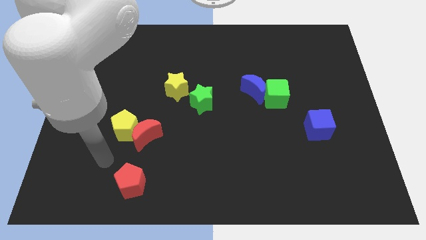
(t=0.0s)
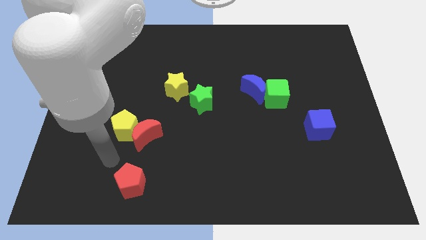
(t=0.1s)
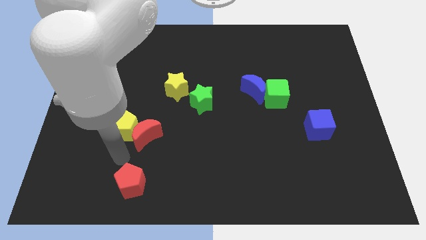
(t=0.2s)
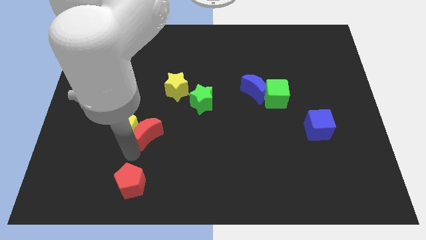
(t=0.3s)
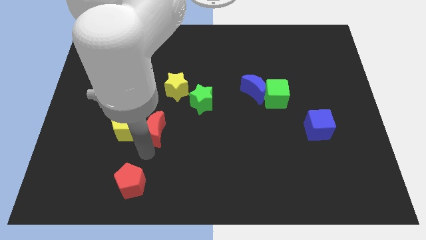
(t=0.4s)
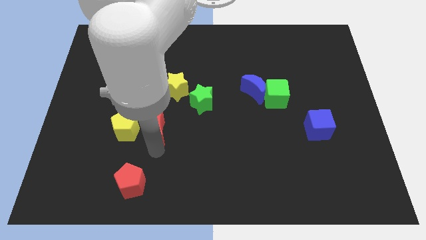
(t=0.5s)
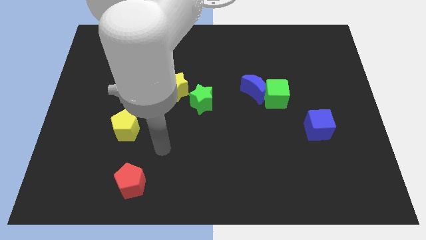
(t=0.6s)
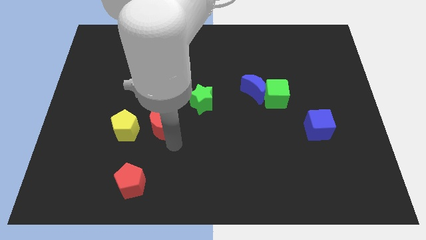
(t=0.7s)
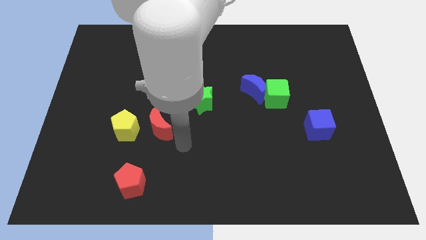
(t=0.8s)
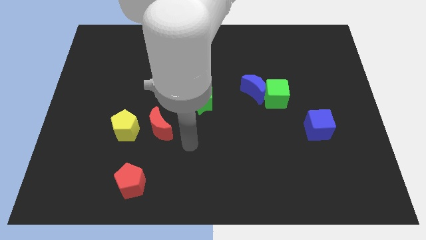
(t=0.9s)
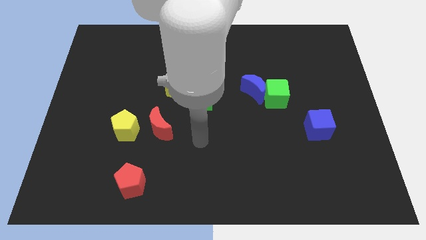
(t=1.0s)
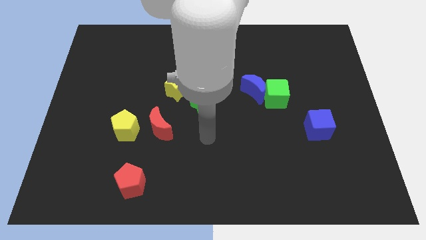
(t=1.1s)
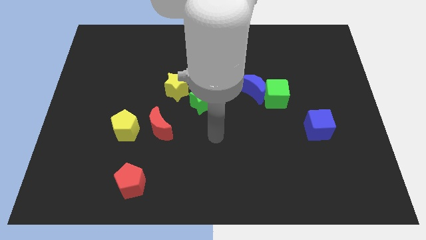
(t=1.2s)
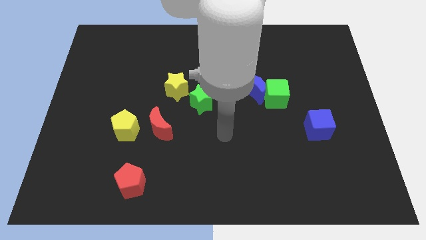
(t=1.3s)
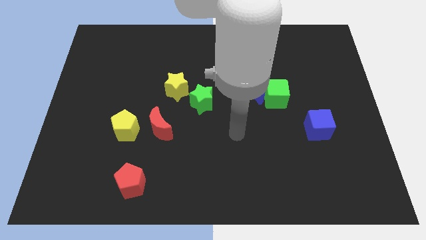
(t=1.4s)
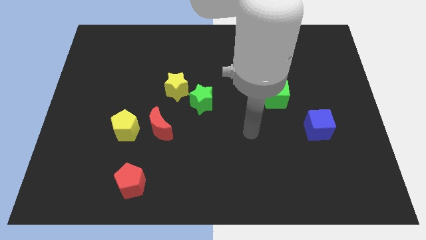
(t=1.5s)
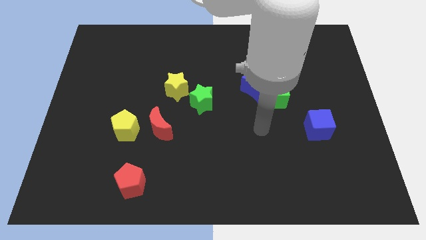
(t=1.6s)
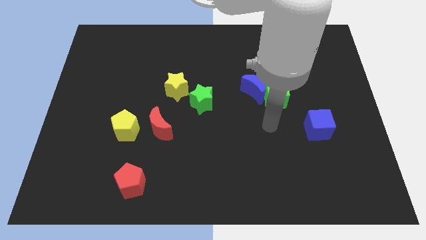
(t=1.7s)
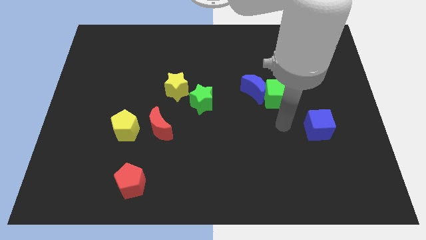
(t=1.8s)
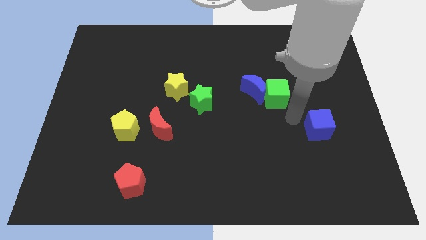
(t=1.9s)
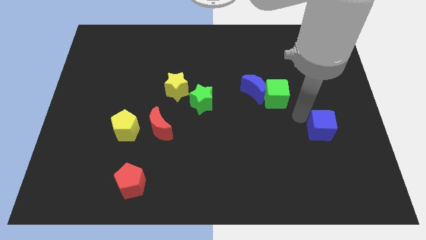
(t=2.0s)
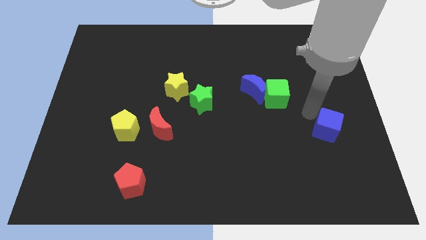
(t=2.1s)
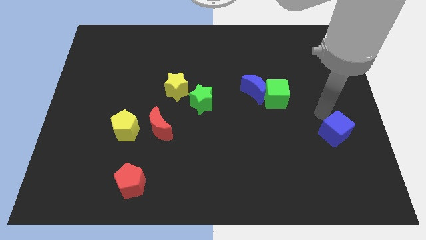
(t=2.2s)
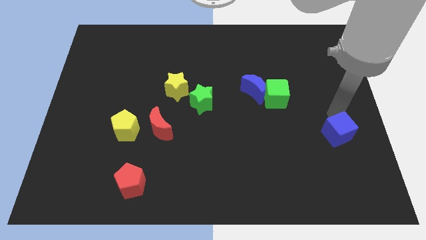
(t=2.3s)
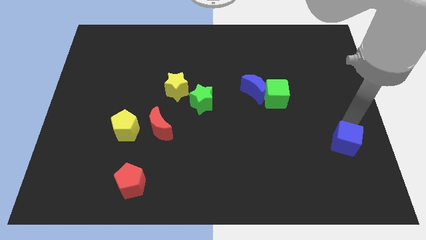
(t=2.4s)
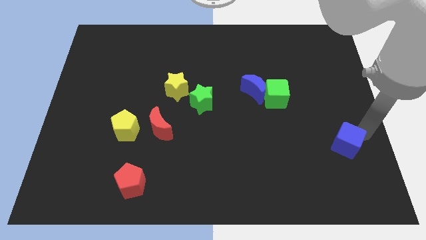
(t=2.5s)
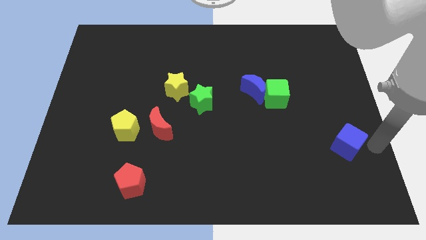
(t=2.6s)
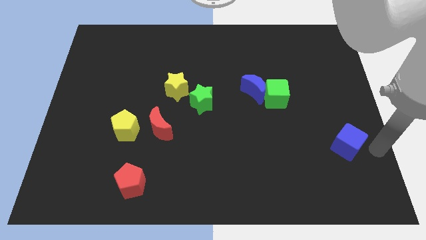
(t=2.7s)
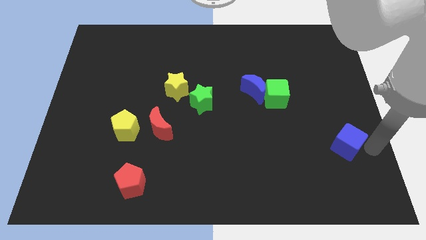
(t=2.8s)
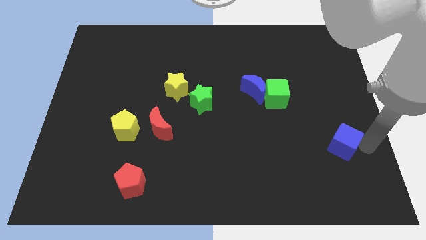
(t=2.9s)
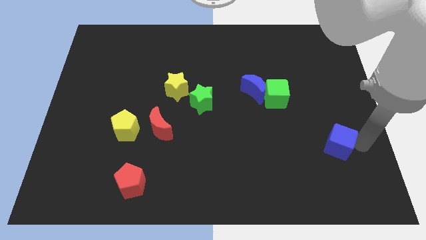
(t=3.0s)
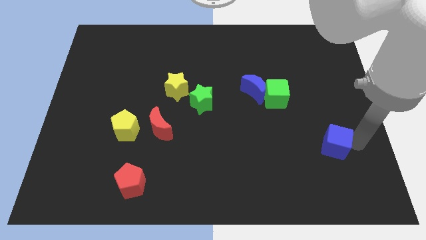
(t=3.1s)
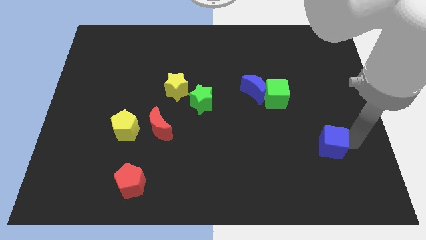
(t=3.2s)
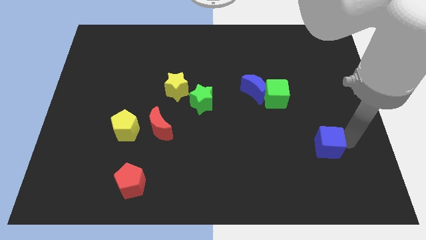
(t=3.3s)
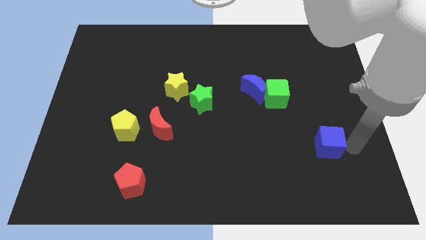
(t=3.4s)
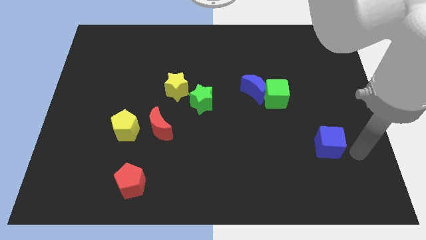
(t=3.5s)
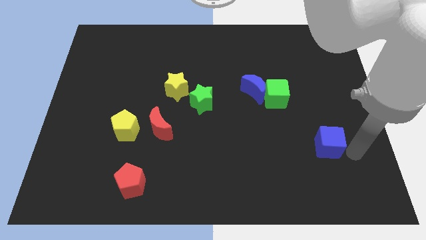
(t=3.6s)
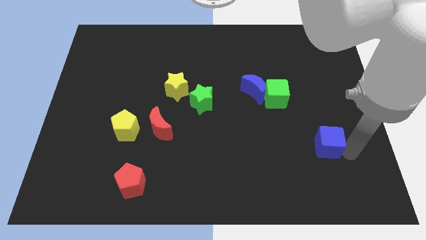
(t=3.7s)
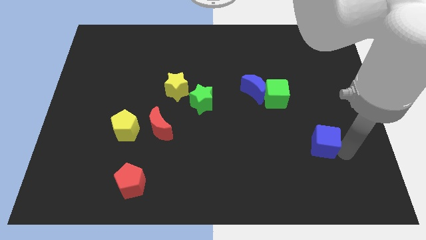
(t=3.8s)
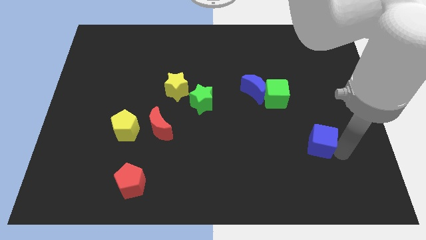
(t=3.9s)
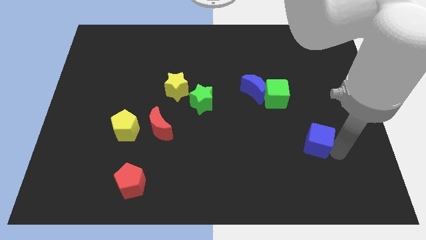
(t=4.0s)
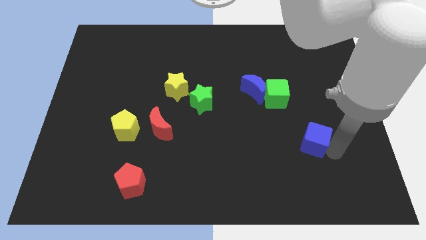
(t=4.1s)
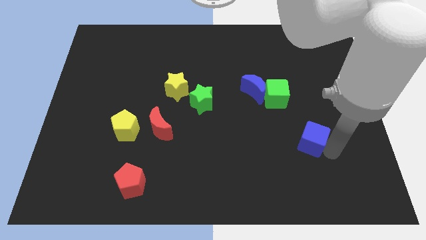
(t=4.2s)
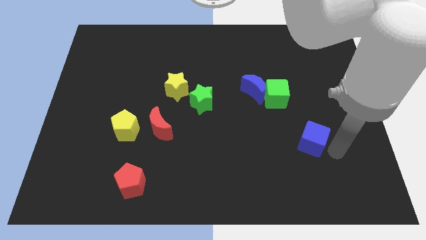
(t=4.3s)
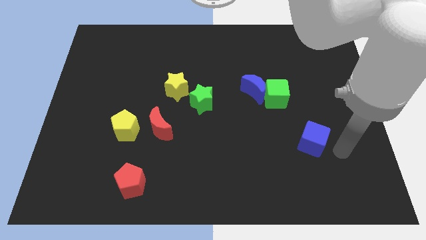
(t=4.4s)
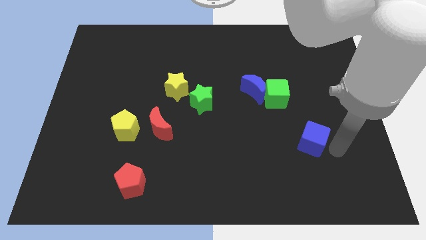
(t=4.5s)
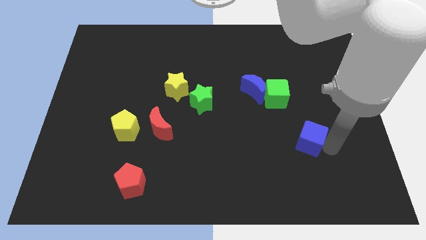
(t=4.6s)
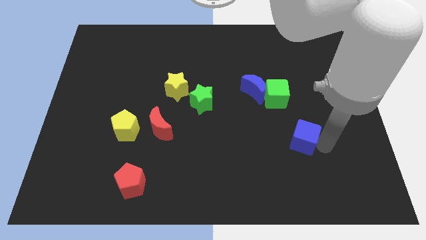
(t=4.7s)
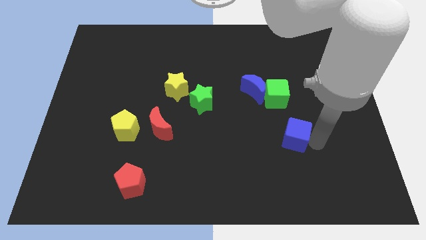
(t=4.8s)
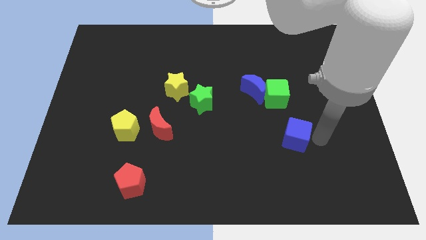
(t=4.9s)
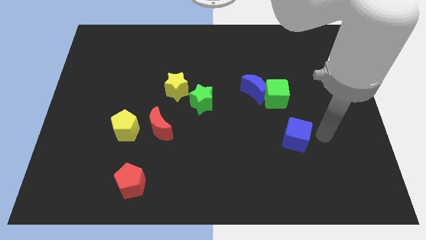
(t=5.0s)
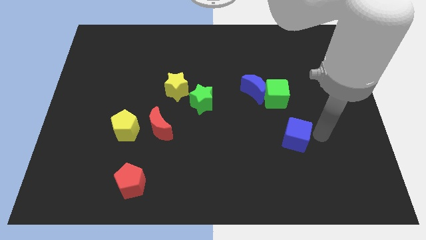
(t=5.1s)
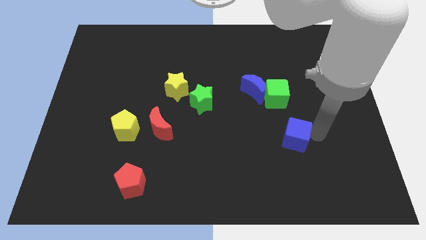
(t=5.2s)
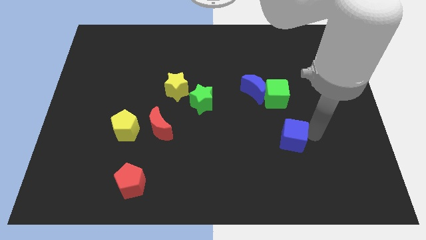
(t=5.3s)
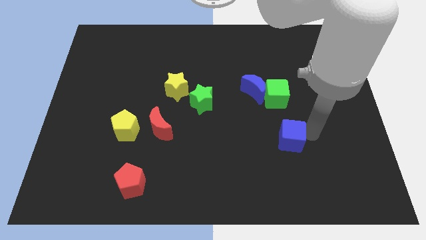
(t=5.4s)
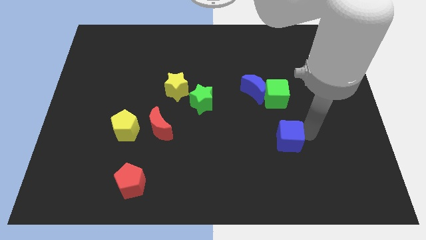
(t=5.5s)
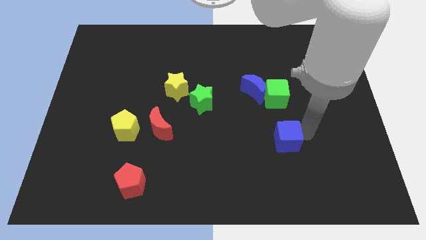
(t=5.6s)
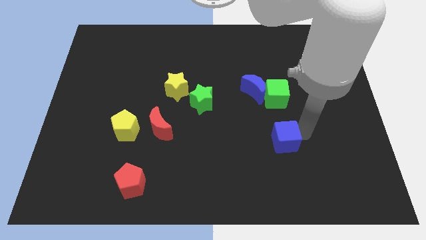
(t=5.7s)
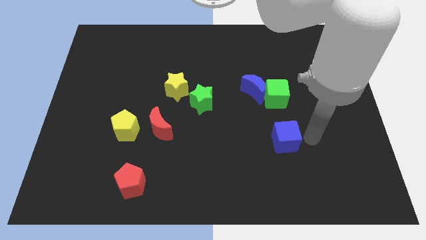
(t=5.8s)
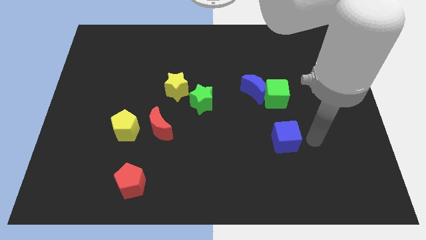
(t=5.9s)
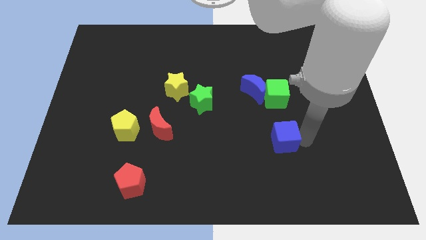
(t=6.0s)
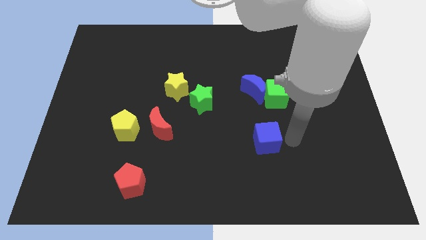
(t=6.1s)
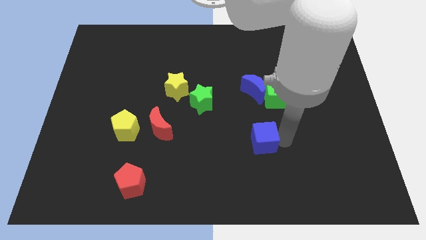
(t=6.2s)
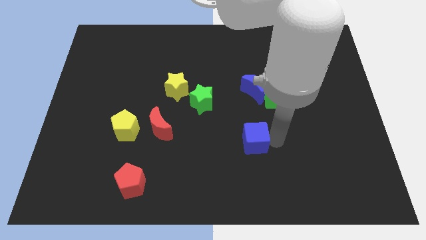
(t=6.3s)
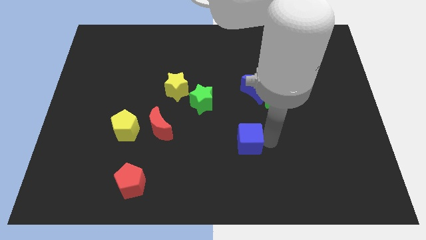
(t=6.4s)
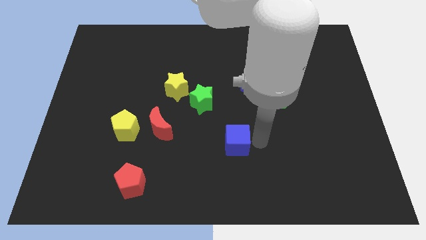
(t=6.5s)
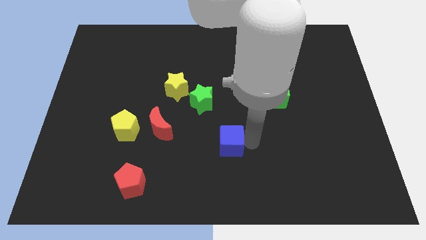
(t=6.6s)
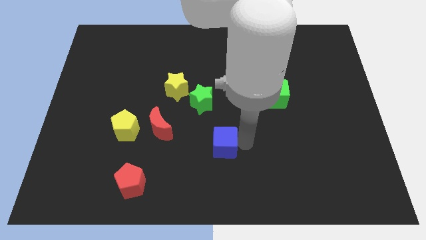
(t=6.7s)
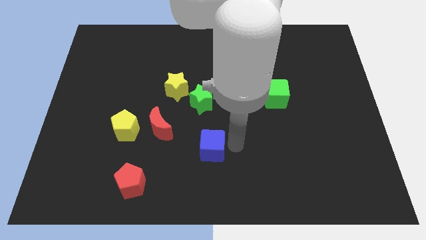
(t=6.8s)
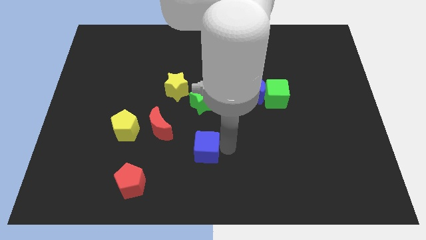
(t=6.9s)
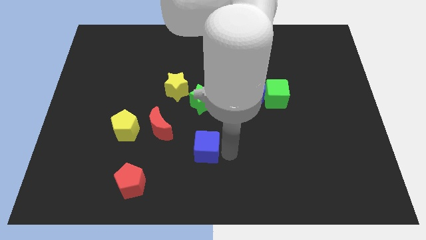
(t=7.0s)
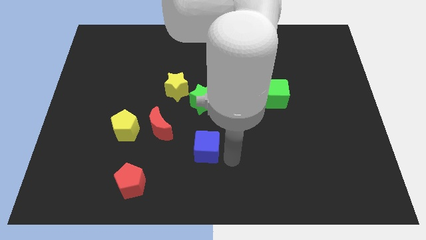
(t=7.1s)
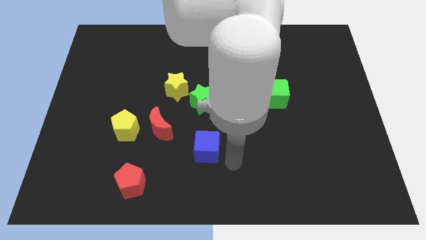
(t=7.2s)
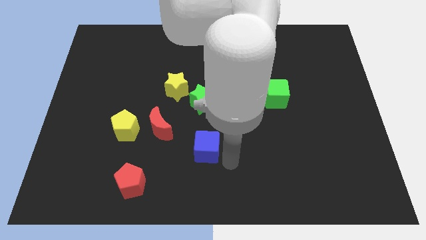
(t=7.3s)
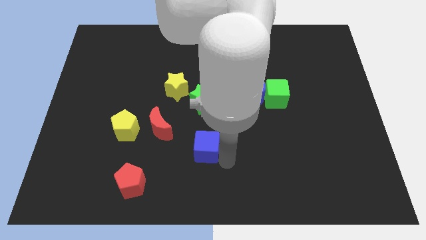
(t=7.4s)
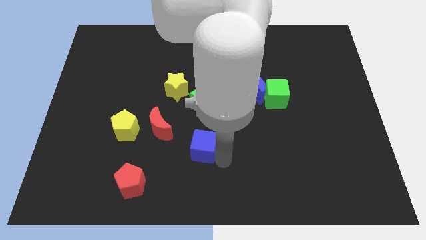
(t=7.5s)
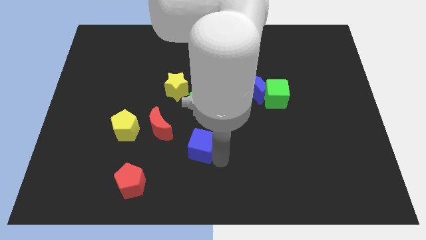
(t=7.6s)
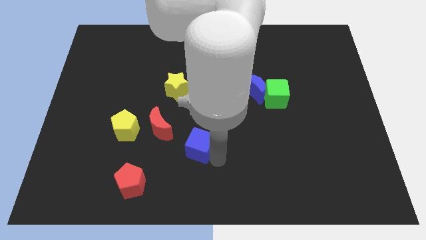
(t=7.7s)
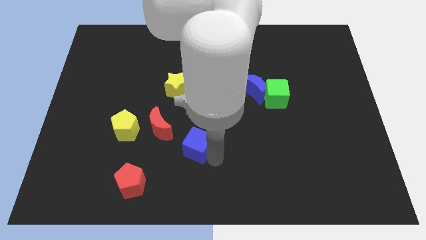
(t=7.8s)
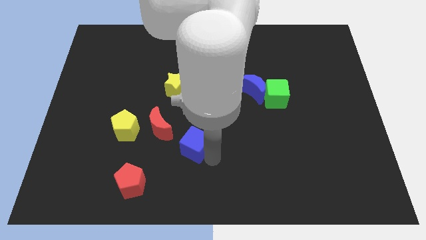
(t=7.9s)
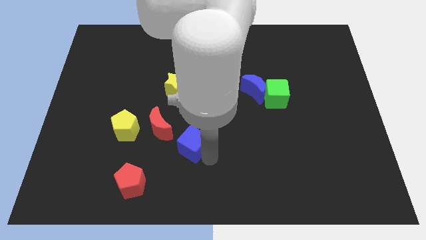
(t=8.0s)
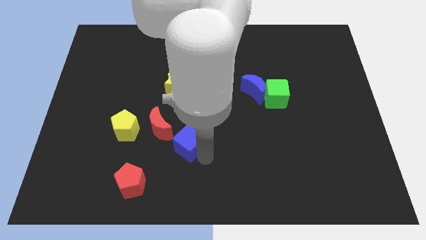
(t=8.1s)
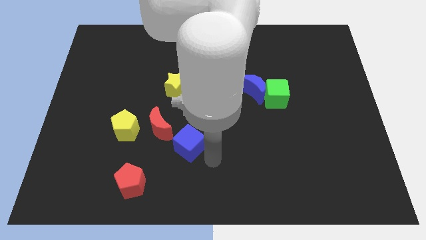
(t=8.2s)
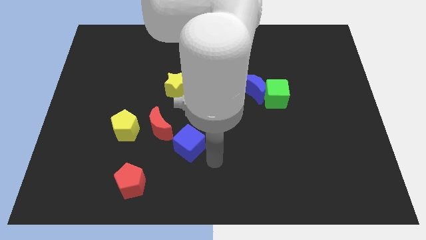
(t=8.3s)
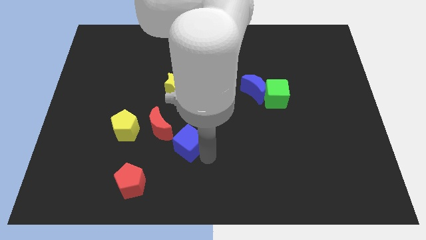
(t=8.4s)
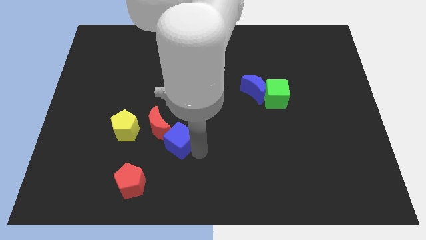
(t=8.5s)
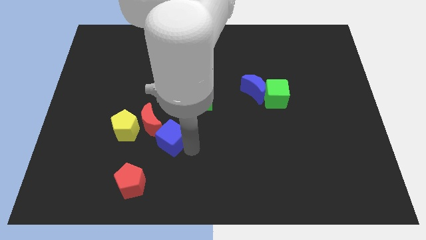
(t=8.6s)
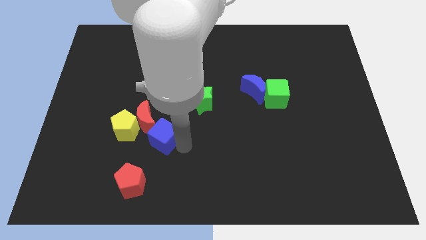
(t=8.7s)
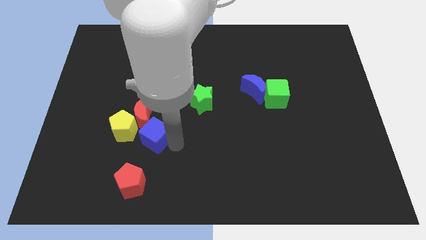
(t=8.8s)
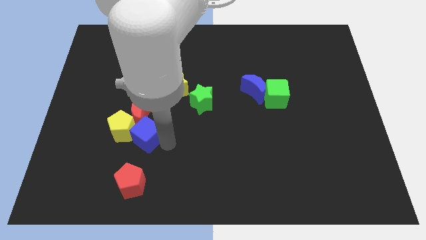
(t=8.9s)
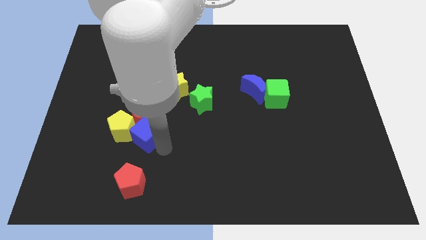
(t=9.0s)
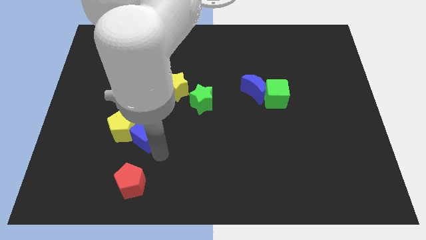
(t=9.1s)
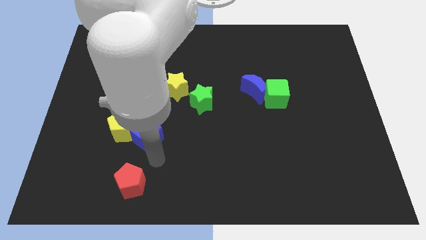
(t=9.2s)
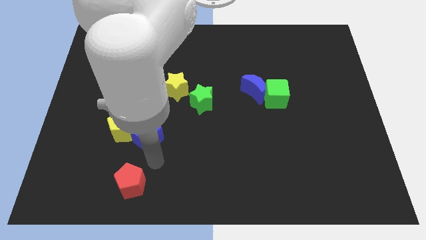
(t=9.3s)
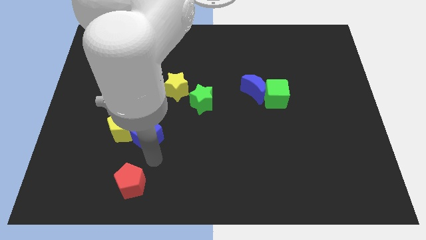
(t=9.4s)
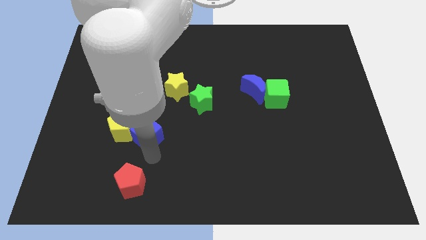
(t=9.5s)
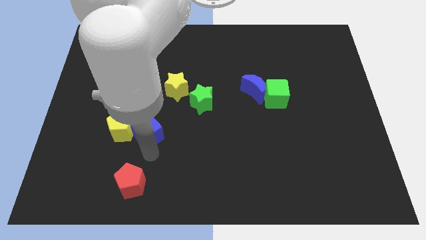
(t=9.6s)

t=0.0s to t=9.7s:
put the blue cube towards the red moon
